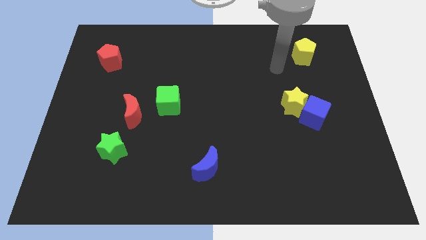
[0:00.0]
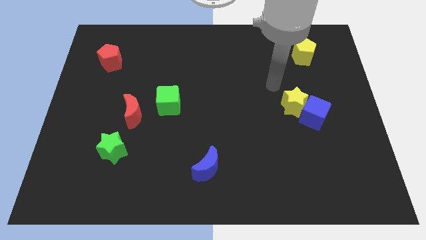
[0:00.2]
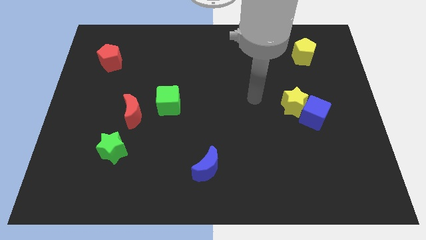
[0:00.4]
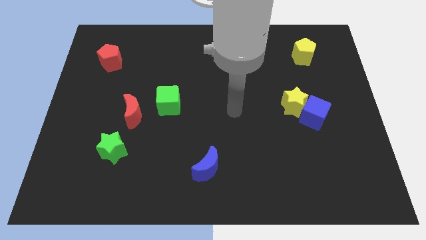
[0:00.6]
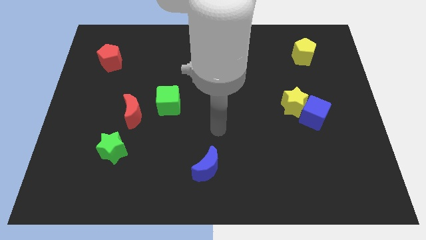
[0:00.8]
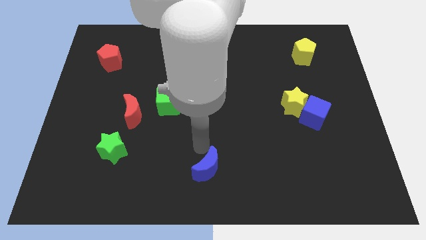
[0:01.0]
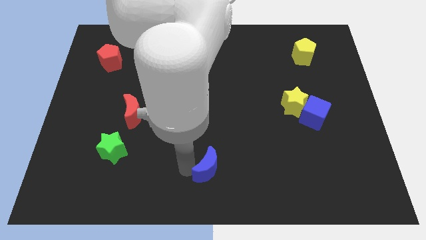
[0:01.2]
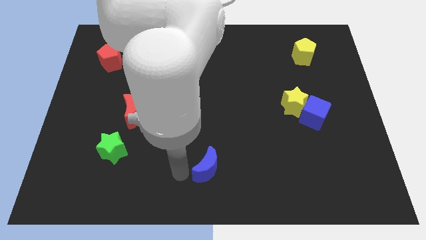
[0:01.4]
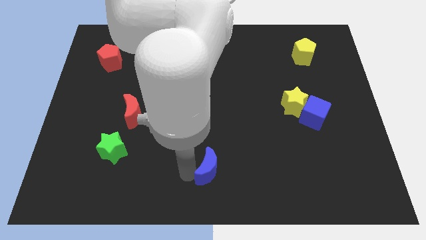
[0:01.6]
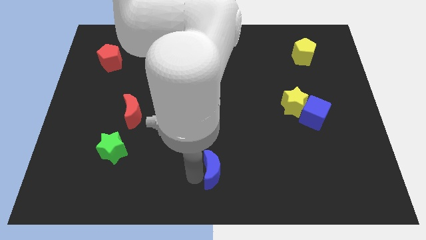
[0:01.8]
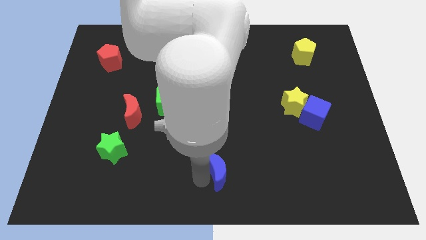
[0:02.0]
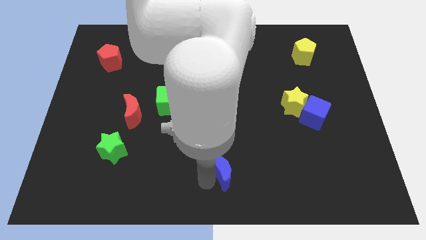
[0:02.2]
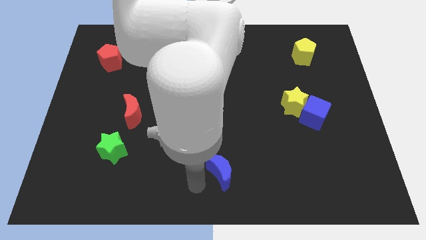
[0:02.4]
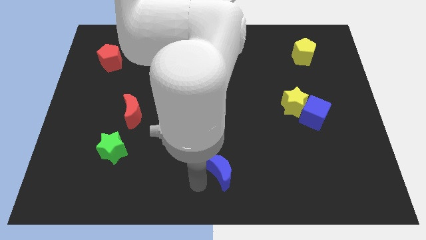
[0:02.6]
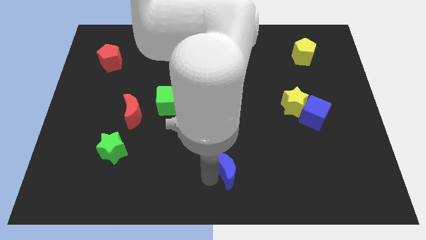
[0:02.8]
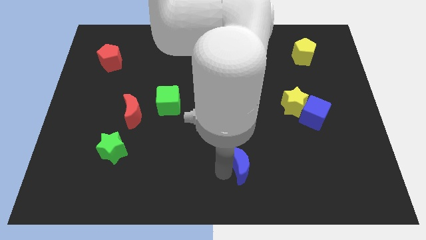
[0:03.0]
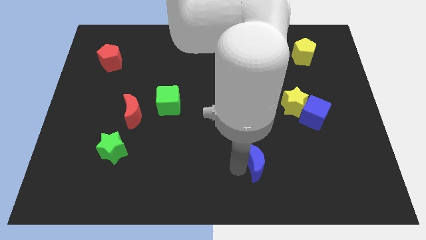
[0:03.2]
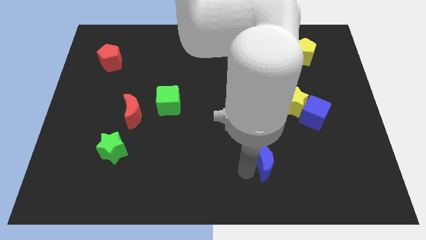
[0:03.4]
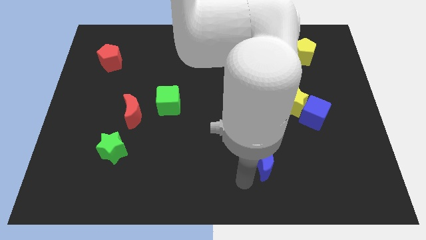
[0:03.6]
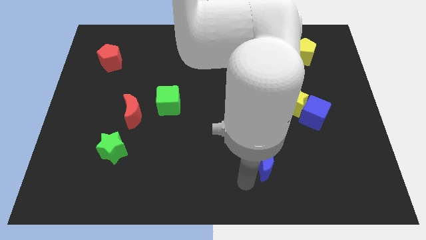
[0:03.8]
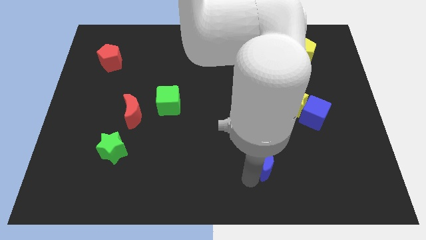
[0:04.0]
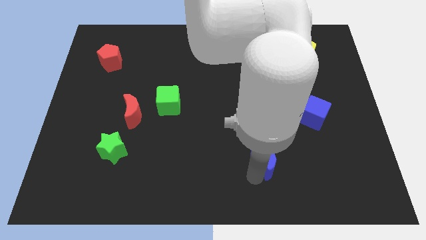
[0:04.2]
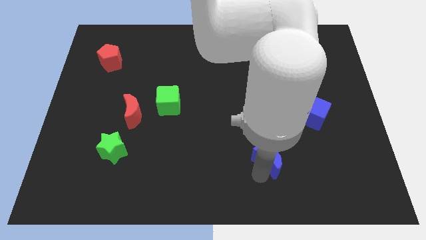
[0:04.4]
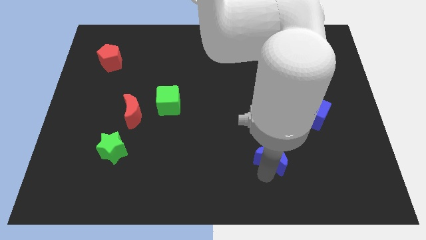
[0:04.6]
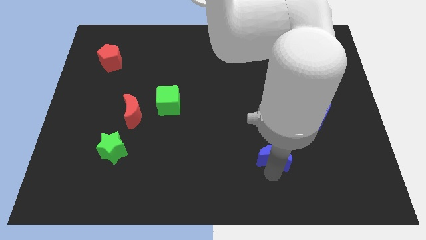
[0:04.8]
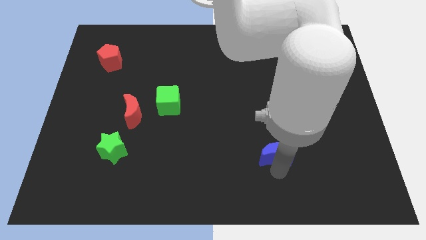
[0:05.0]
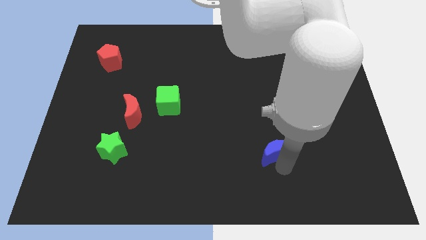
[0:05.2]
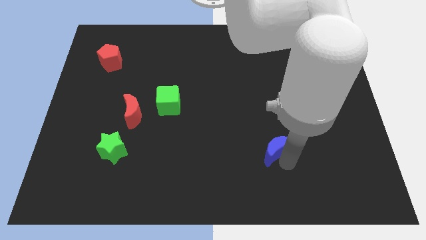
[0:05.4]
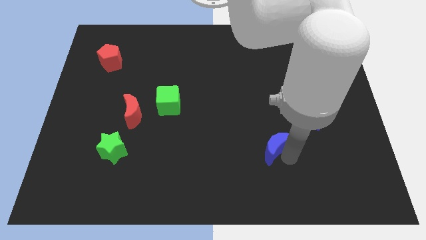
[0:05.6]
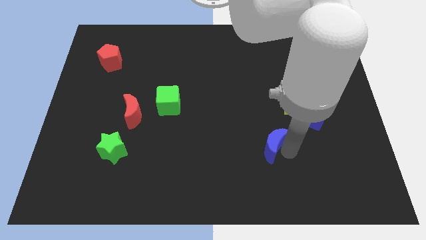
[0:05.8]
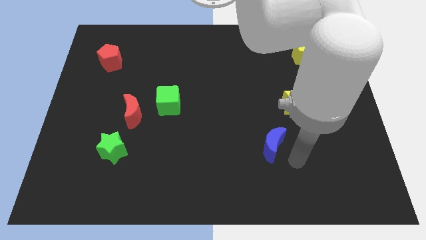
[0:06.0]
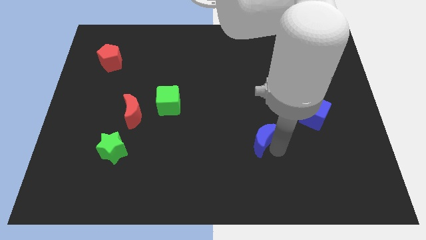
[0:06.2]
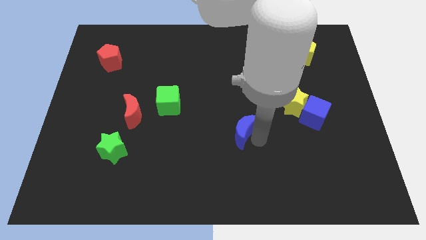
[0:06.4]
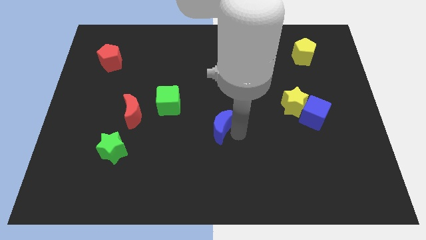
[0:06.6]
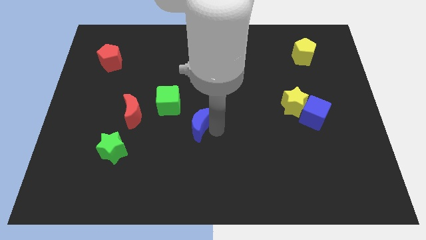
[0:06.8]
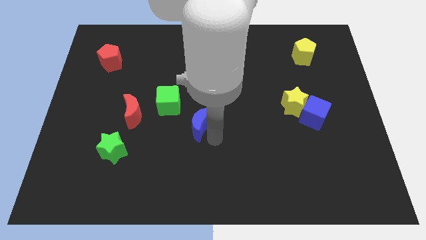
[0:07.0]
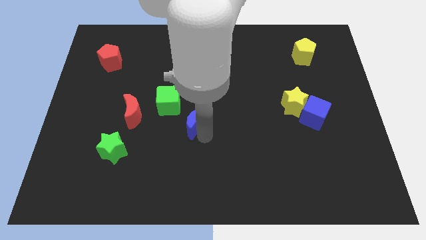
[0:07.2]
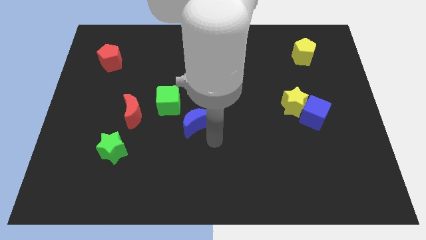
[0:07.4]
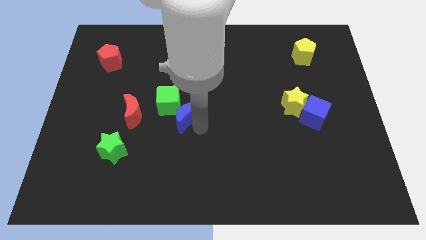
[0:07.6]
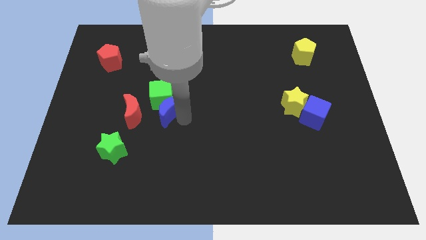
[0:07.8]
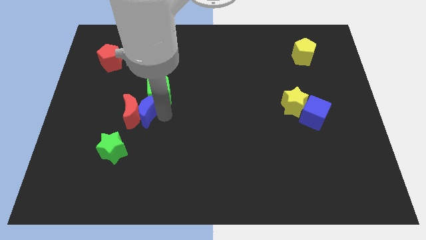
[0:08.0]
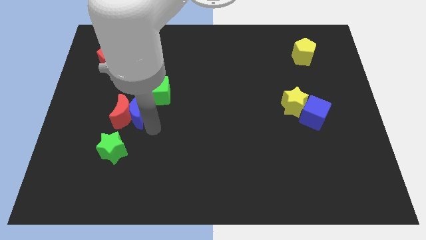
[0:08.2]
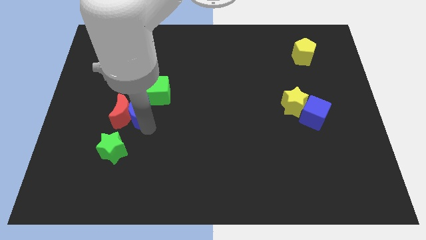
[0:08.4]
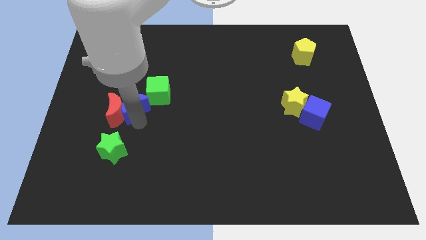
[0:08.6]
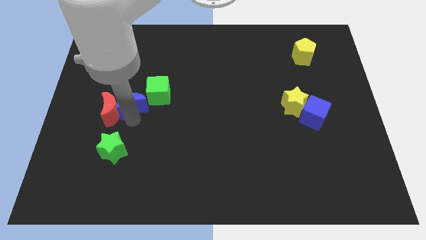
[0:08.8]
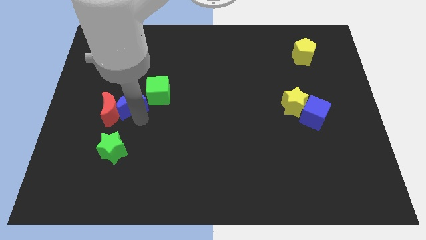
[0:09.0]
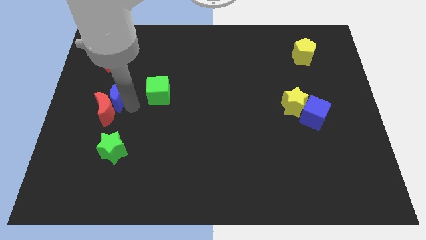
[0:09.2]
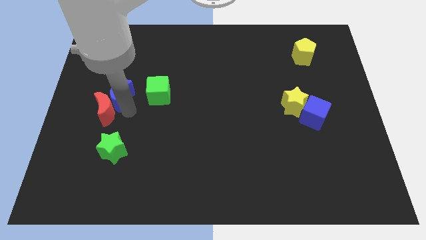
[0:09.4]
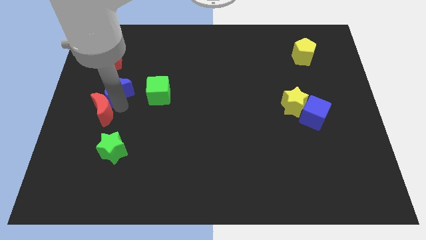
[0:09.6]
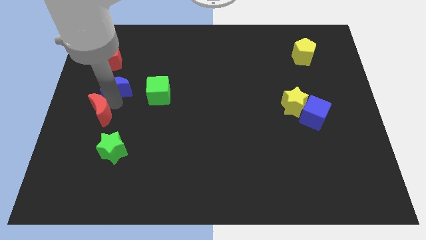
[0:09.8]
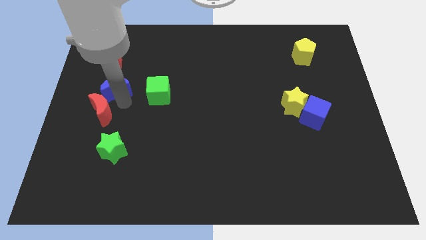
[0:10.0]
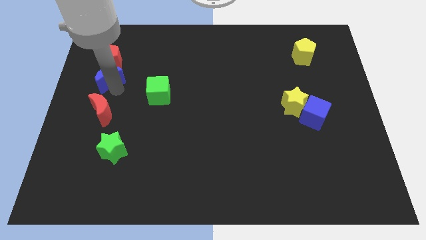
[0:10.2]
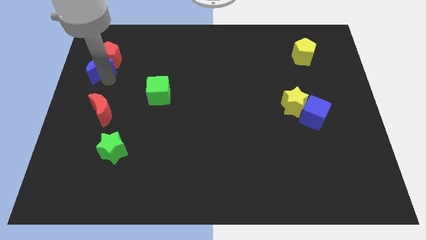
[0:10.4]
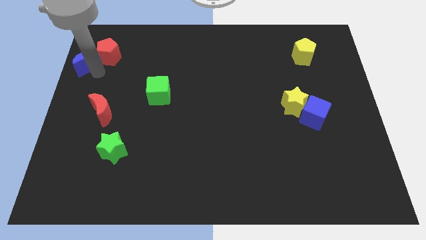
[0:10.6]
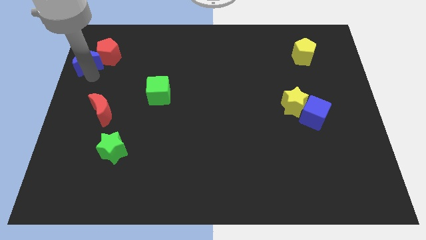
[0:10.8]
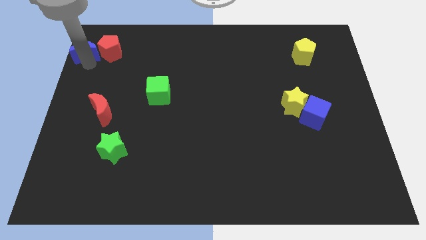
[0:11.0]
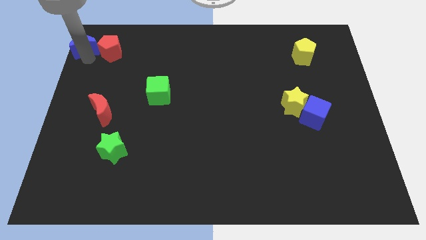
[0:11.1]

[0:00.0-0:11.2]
slide the blue moon to the top left
